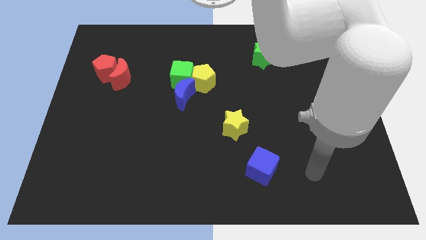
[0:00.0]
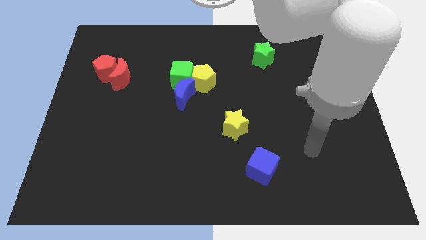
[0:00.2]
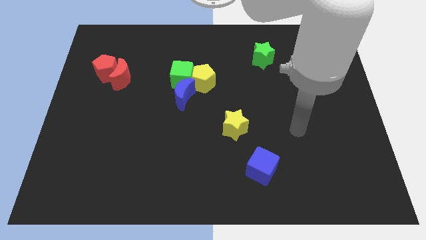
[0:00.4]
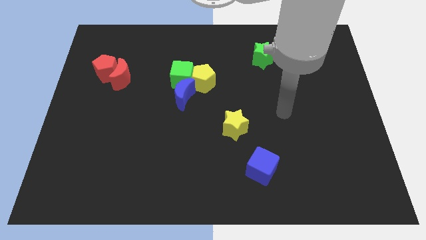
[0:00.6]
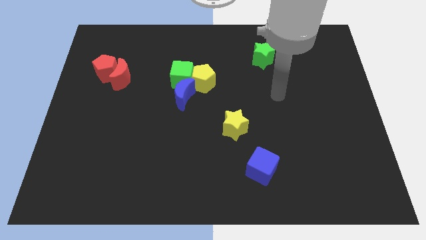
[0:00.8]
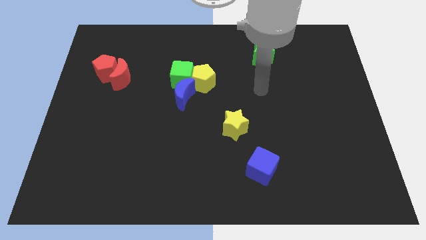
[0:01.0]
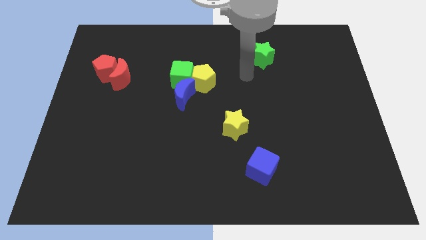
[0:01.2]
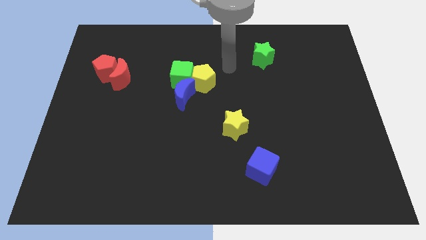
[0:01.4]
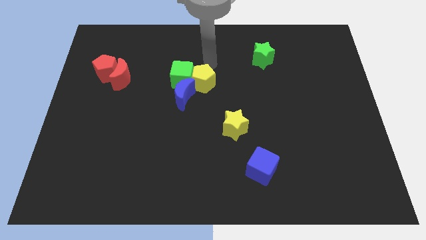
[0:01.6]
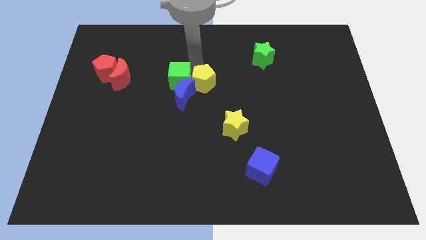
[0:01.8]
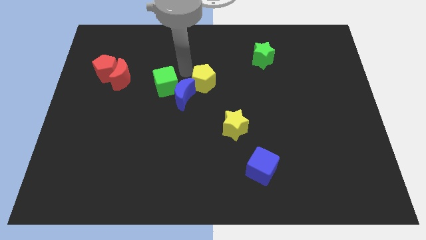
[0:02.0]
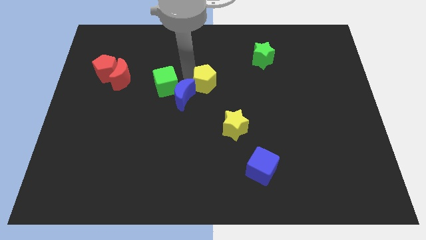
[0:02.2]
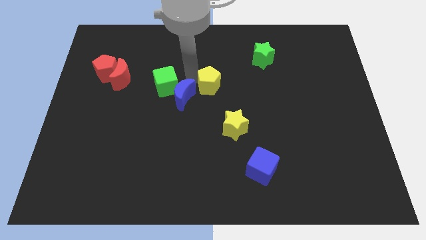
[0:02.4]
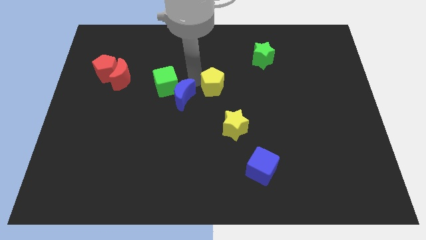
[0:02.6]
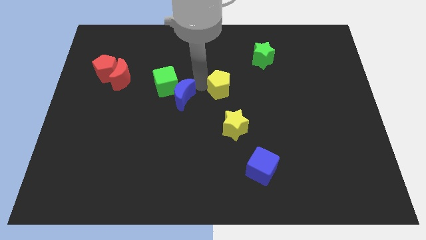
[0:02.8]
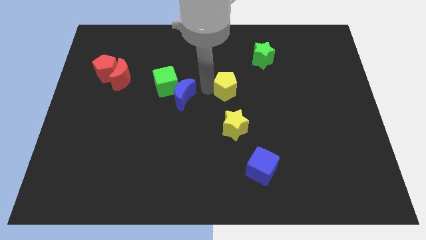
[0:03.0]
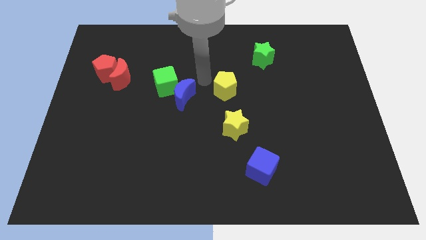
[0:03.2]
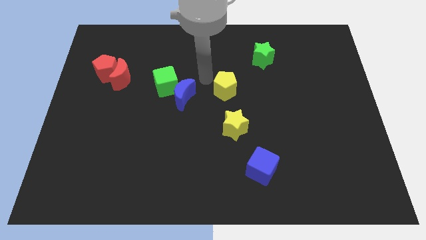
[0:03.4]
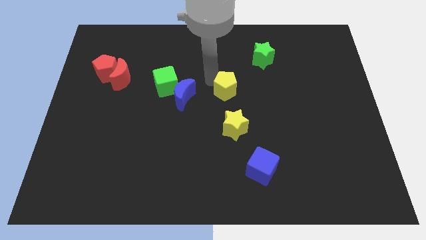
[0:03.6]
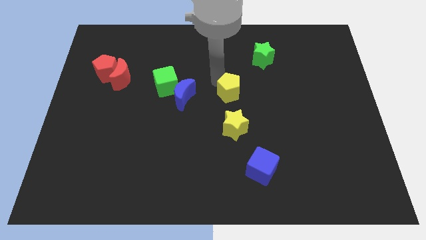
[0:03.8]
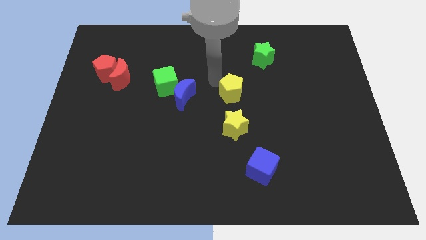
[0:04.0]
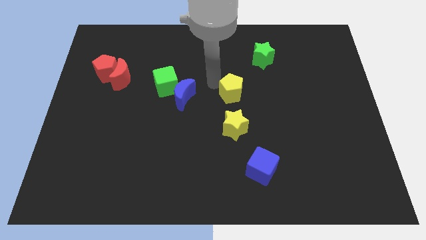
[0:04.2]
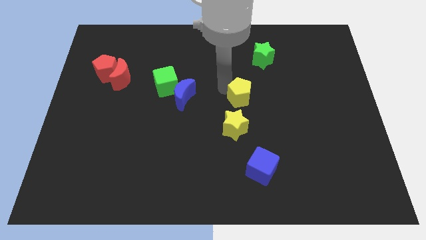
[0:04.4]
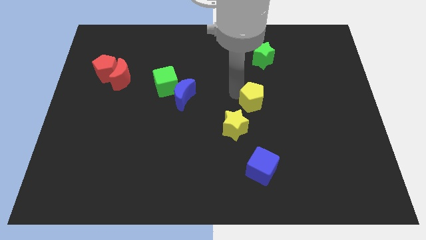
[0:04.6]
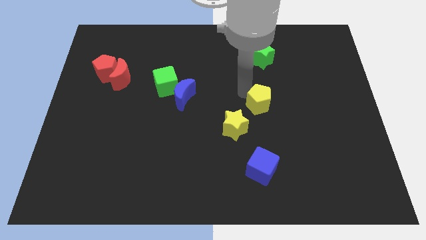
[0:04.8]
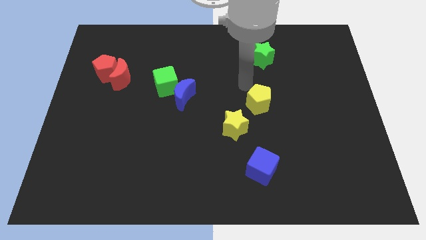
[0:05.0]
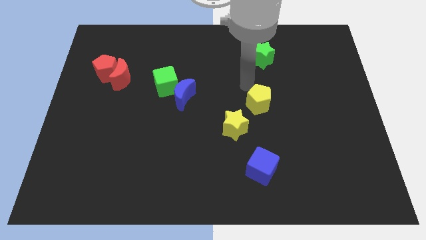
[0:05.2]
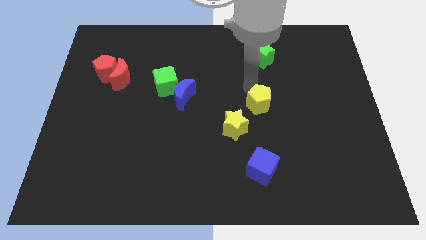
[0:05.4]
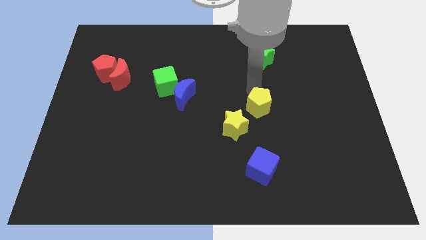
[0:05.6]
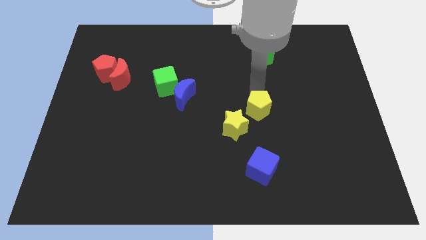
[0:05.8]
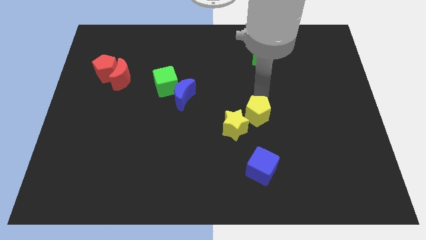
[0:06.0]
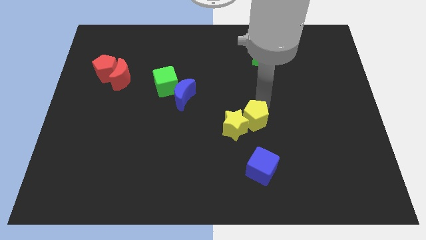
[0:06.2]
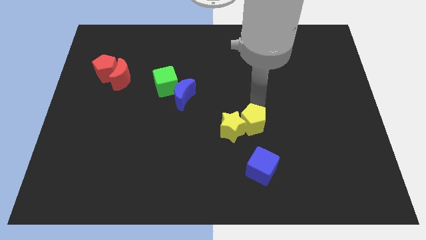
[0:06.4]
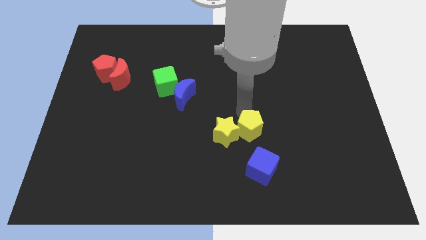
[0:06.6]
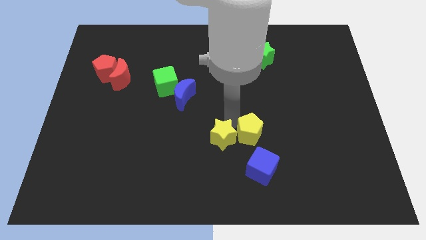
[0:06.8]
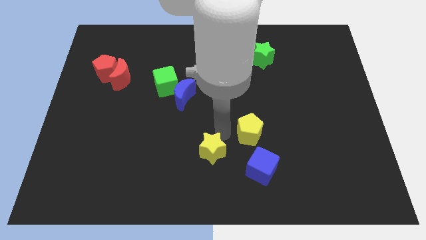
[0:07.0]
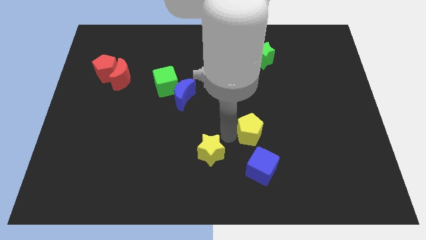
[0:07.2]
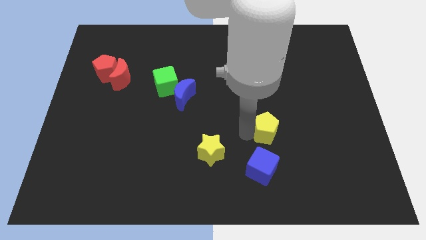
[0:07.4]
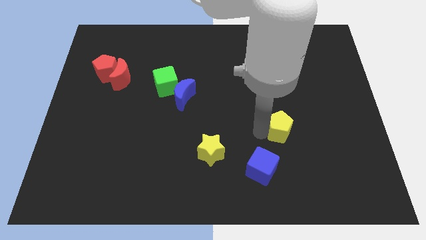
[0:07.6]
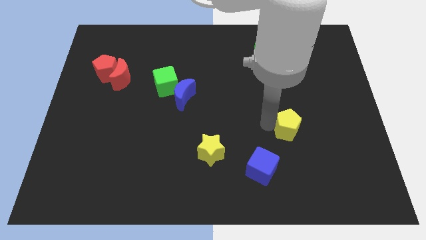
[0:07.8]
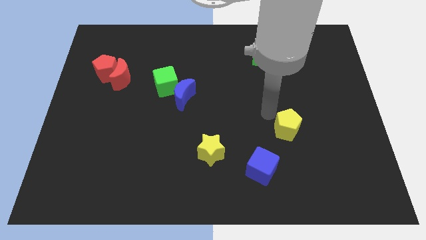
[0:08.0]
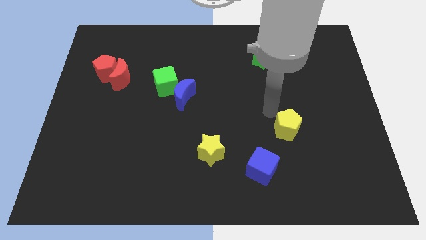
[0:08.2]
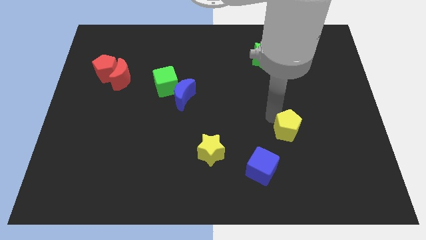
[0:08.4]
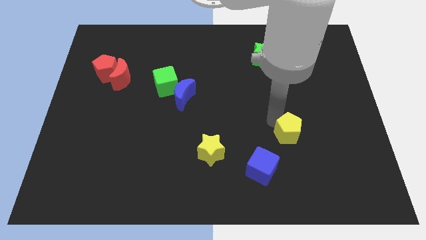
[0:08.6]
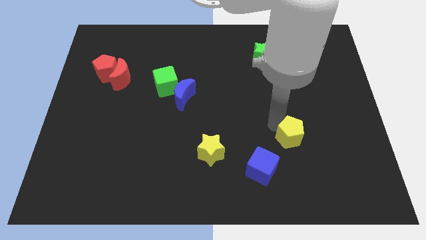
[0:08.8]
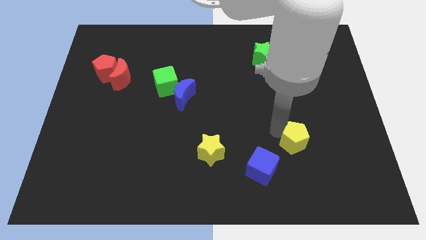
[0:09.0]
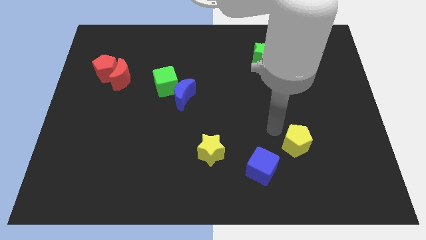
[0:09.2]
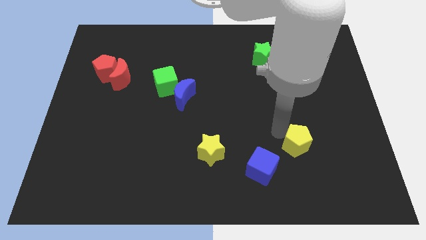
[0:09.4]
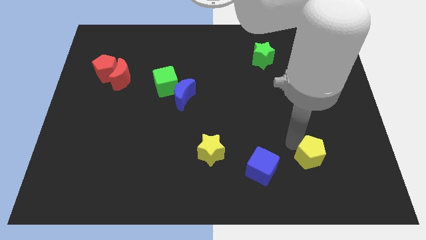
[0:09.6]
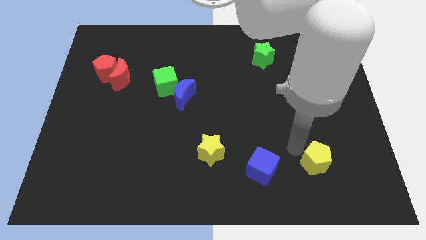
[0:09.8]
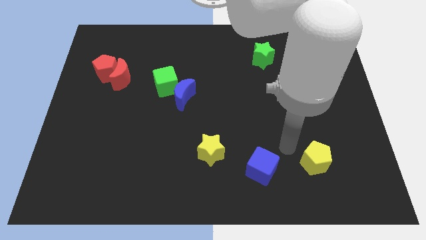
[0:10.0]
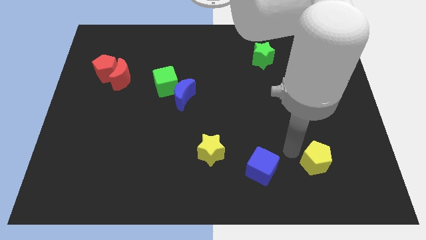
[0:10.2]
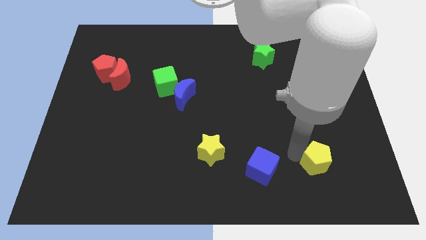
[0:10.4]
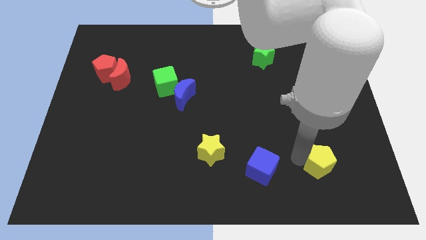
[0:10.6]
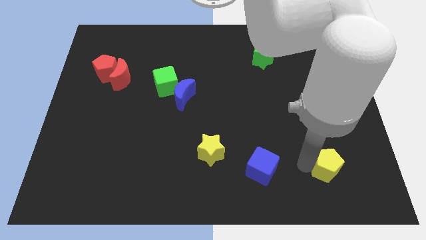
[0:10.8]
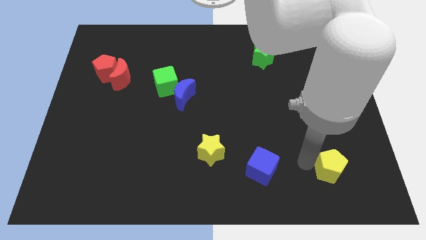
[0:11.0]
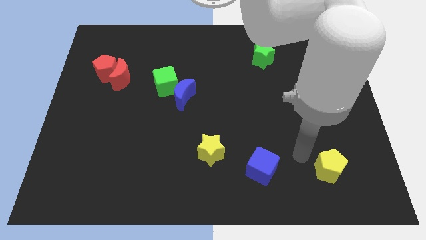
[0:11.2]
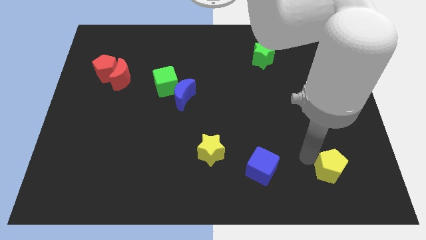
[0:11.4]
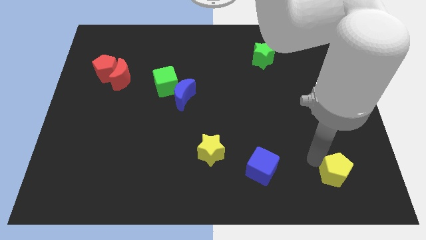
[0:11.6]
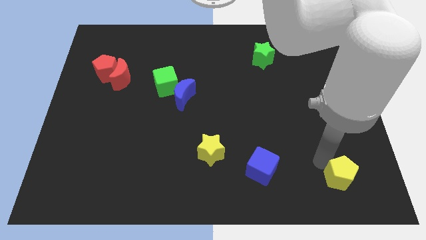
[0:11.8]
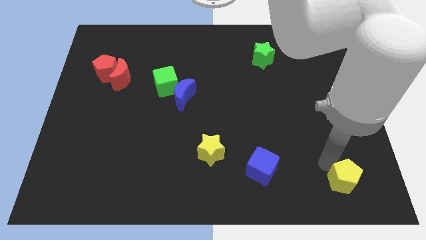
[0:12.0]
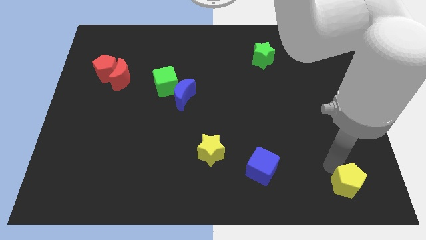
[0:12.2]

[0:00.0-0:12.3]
push the yellow pentagon to the lower right corner

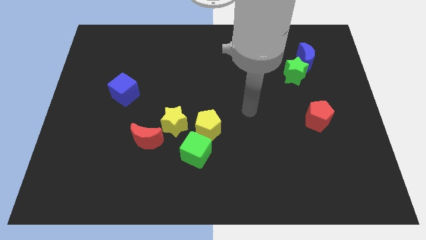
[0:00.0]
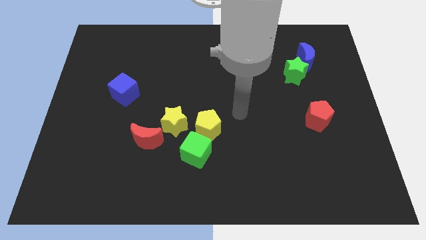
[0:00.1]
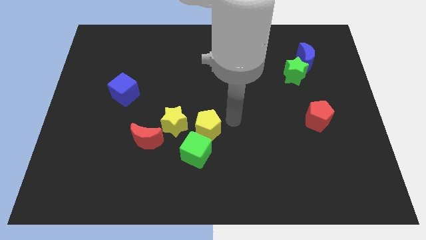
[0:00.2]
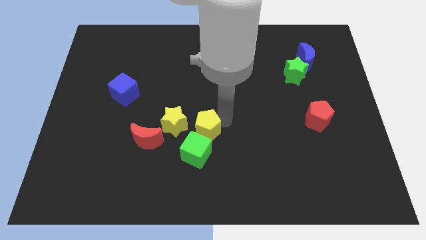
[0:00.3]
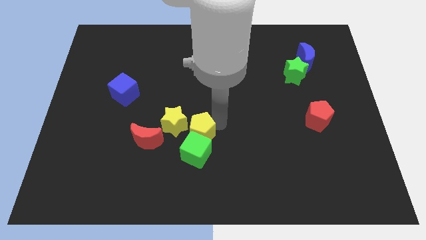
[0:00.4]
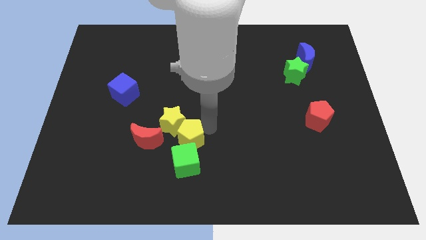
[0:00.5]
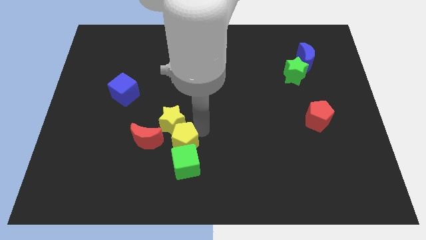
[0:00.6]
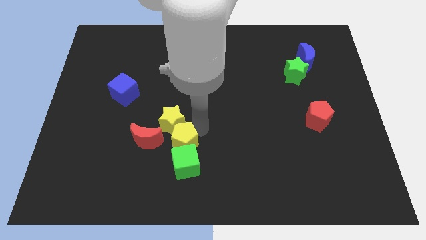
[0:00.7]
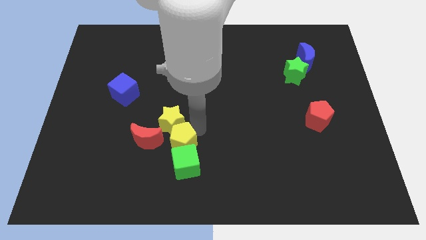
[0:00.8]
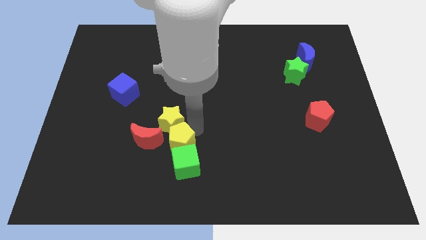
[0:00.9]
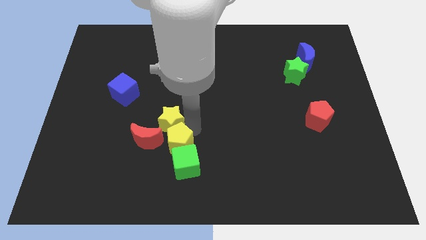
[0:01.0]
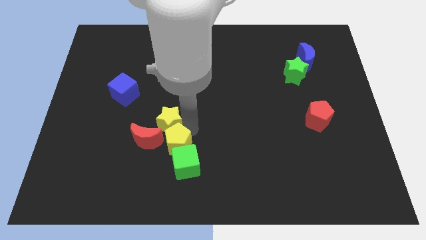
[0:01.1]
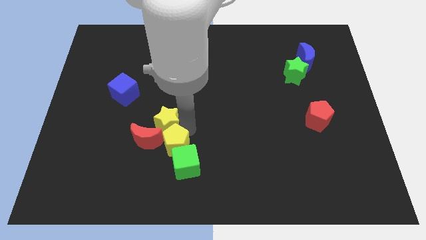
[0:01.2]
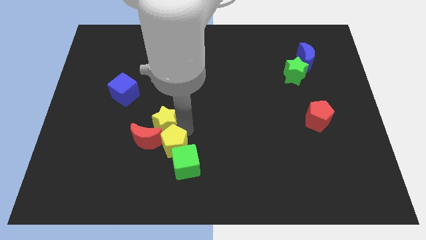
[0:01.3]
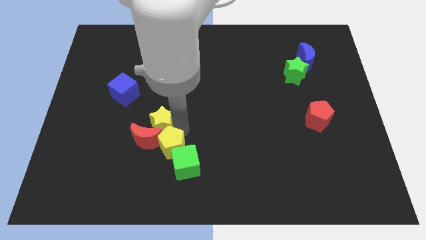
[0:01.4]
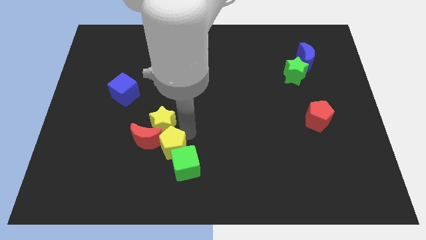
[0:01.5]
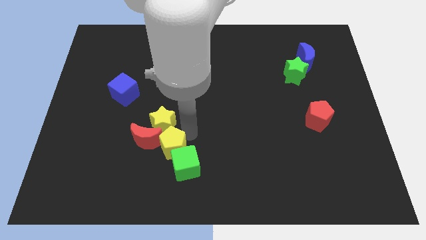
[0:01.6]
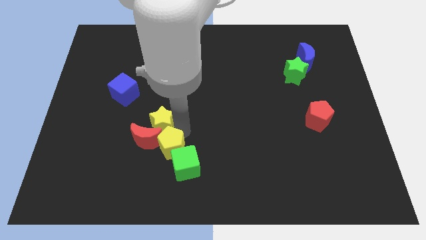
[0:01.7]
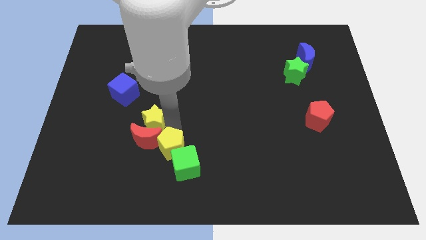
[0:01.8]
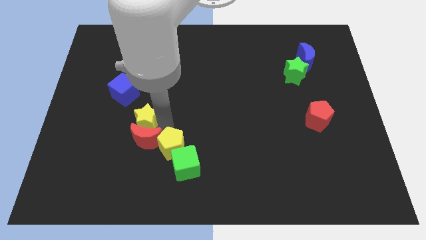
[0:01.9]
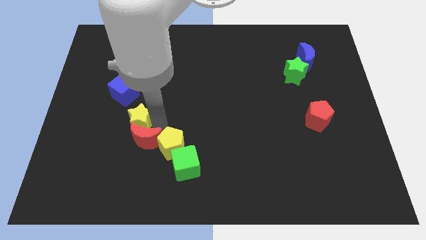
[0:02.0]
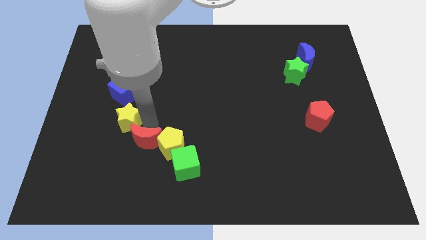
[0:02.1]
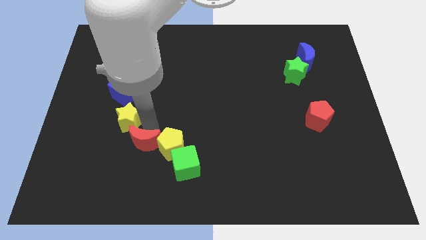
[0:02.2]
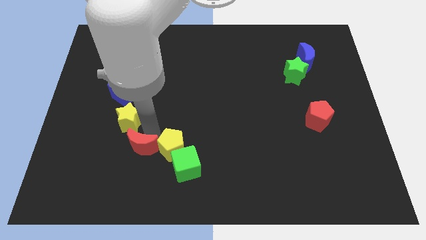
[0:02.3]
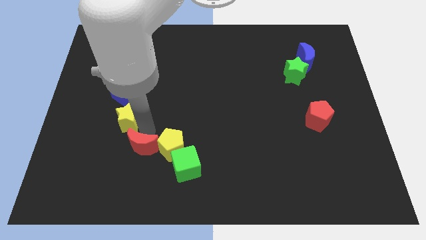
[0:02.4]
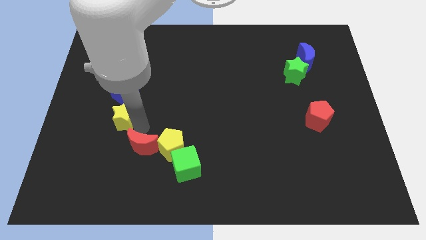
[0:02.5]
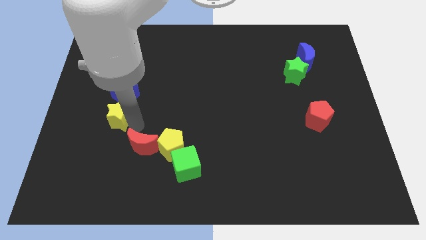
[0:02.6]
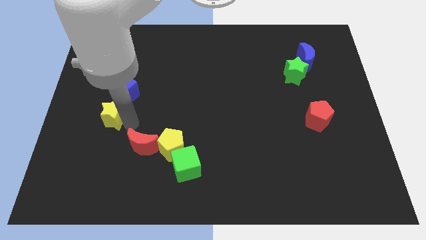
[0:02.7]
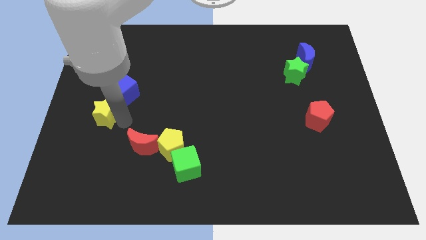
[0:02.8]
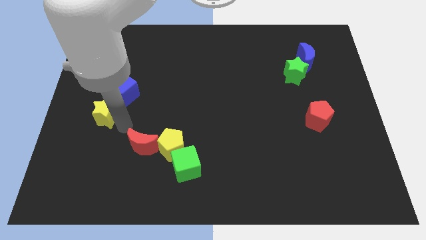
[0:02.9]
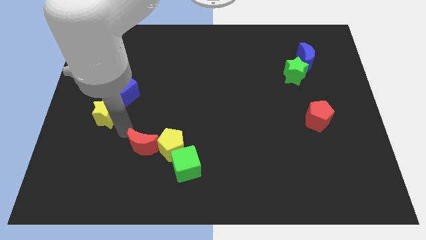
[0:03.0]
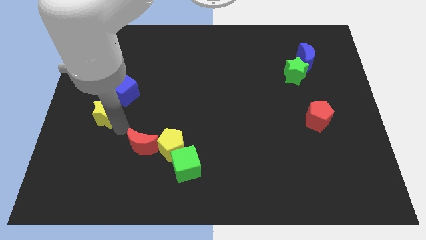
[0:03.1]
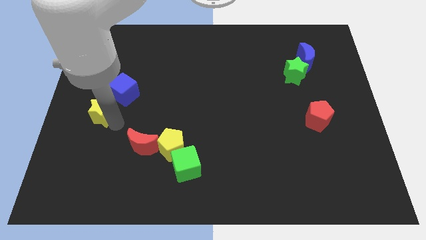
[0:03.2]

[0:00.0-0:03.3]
move the yellow star to the left side of the board
